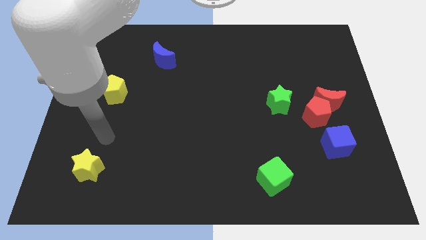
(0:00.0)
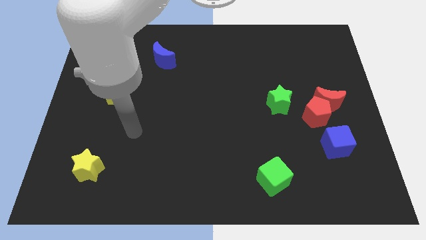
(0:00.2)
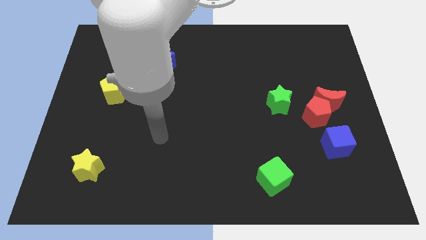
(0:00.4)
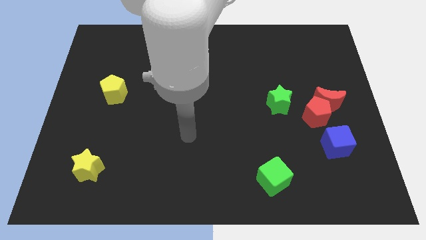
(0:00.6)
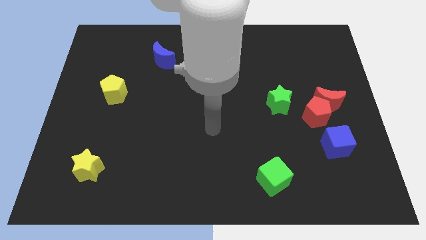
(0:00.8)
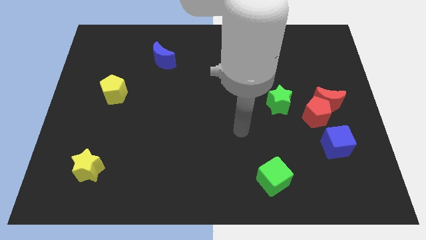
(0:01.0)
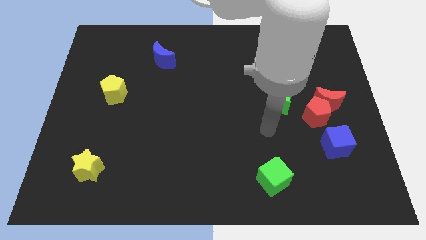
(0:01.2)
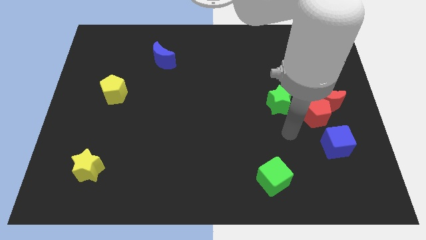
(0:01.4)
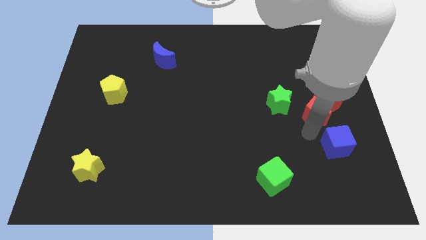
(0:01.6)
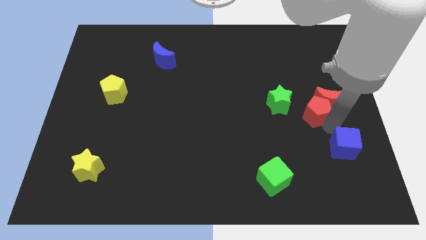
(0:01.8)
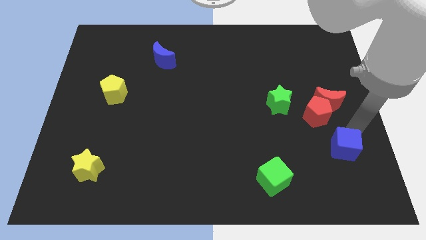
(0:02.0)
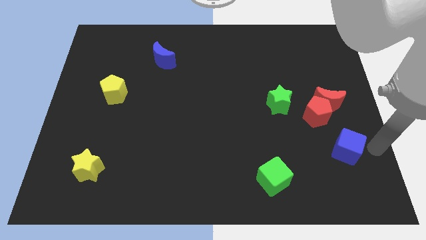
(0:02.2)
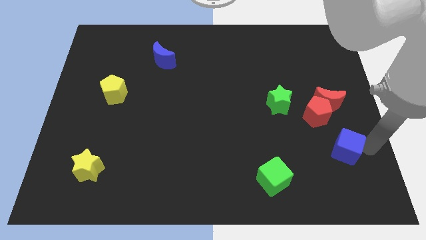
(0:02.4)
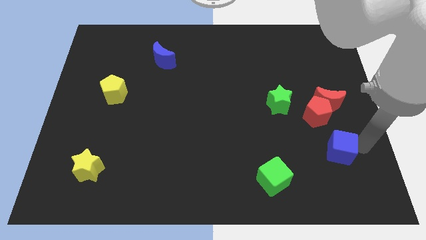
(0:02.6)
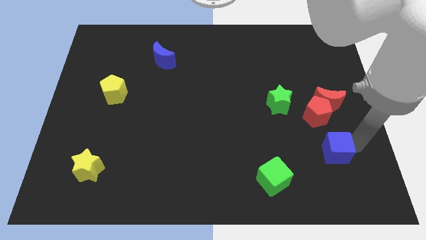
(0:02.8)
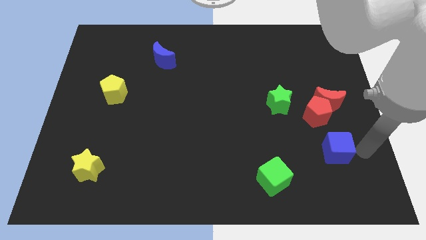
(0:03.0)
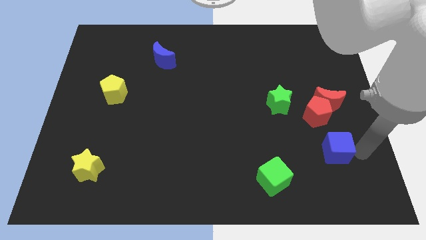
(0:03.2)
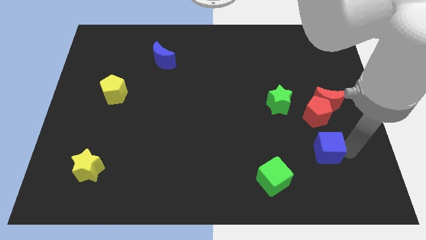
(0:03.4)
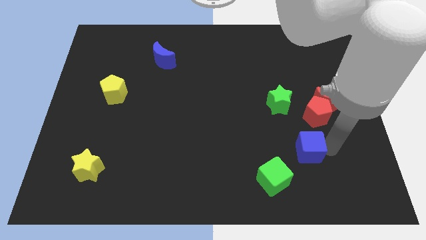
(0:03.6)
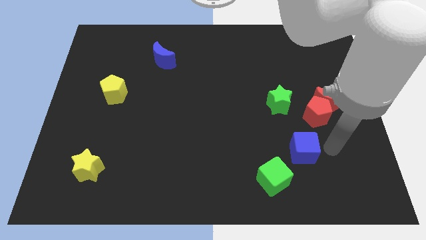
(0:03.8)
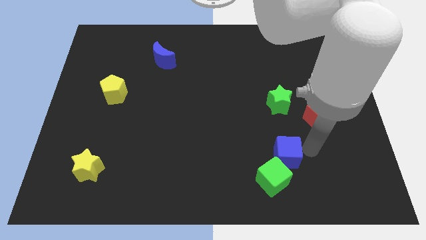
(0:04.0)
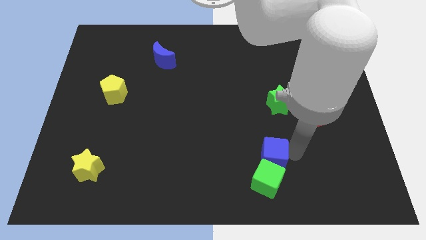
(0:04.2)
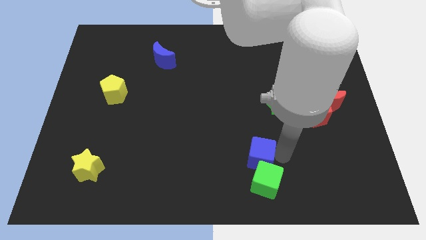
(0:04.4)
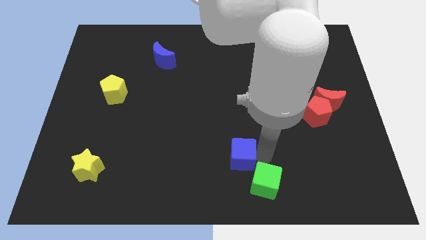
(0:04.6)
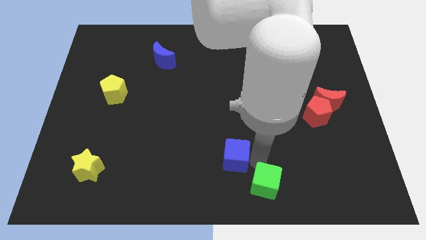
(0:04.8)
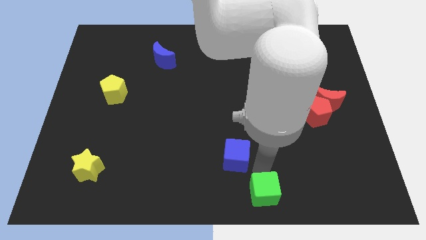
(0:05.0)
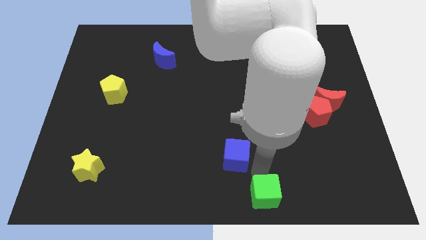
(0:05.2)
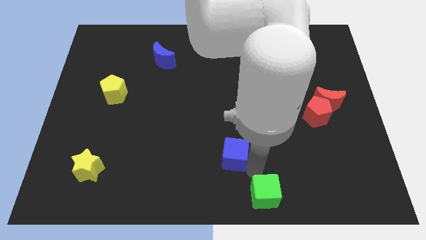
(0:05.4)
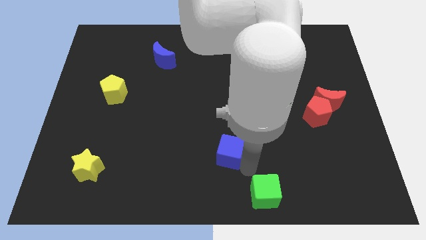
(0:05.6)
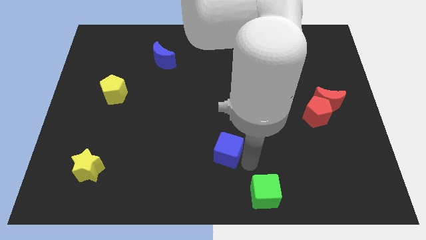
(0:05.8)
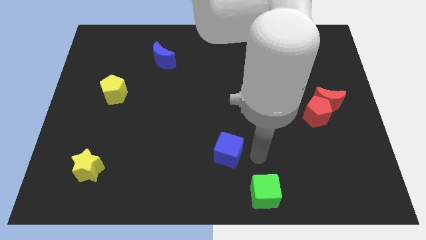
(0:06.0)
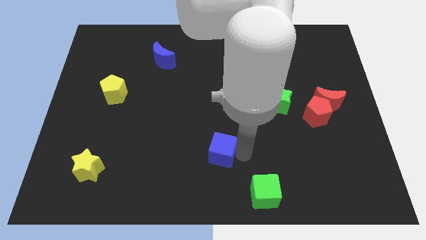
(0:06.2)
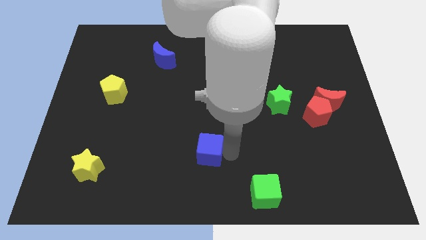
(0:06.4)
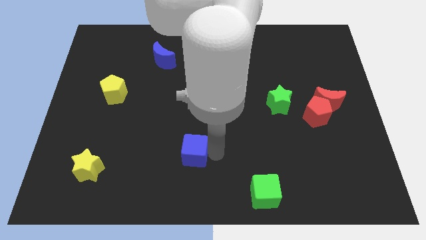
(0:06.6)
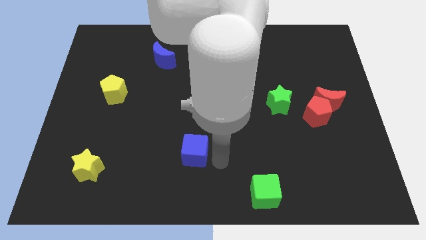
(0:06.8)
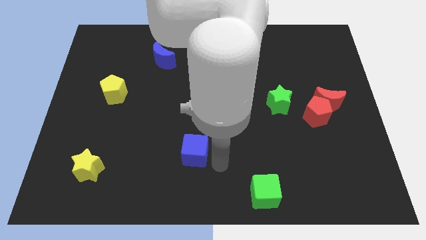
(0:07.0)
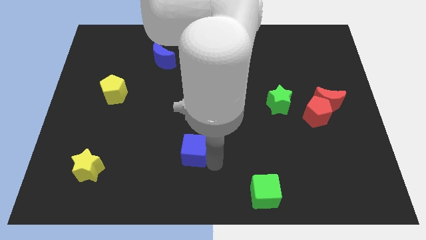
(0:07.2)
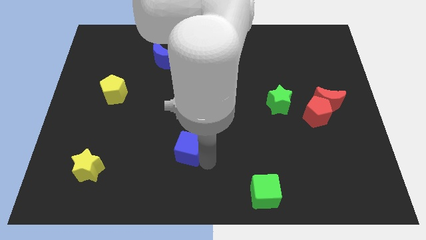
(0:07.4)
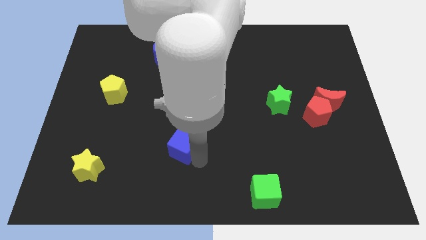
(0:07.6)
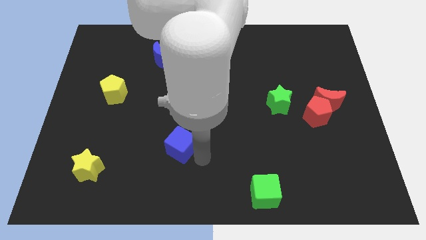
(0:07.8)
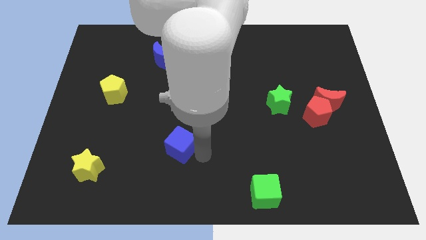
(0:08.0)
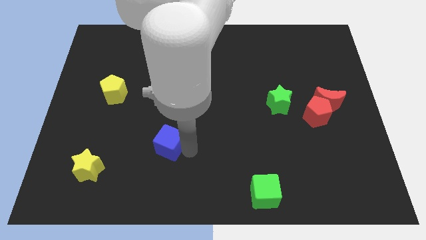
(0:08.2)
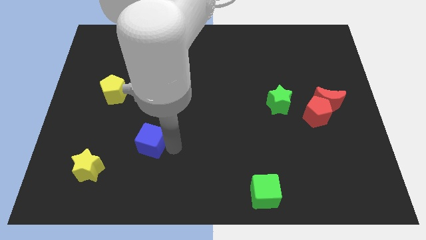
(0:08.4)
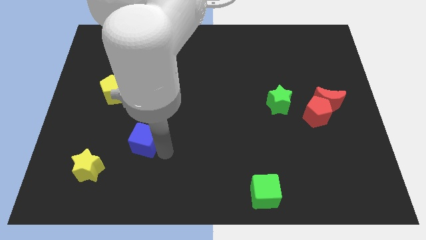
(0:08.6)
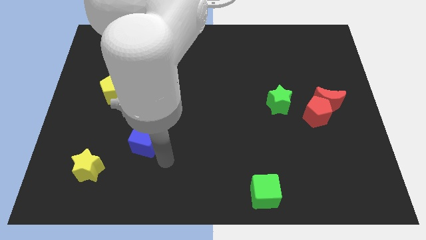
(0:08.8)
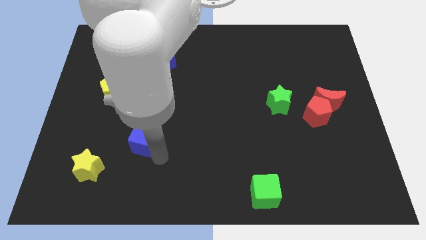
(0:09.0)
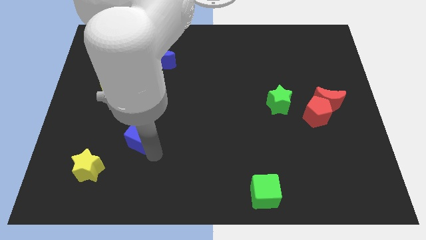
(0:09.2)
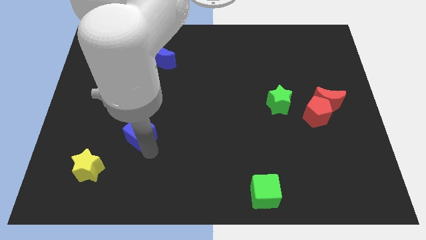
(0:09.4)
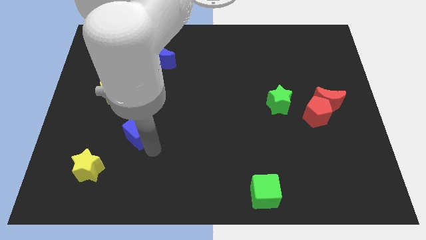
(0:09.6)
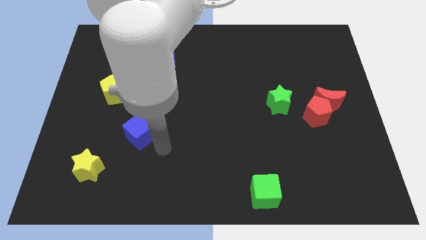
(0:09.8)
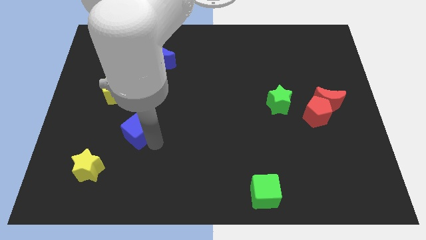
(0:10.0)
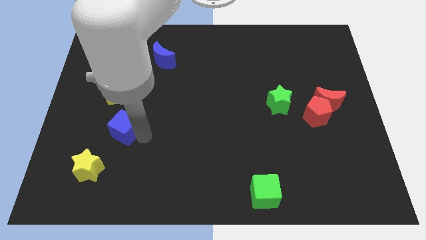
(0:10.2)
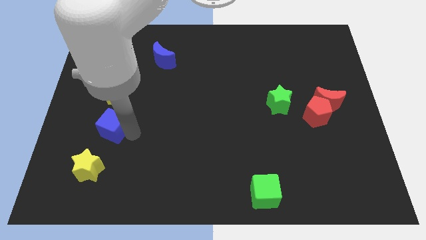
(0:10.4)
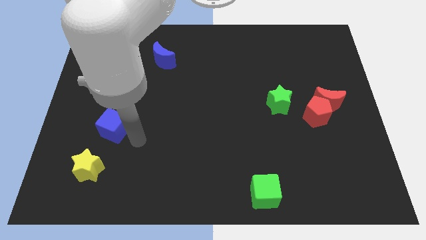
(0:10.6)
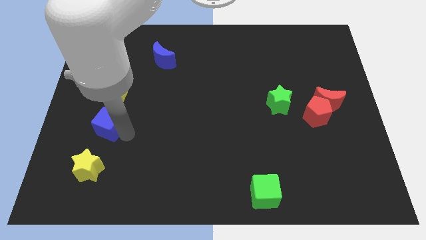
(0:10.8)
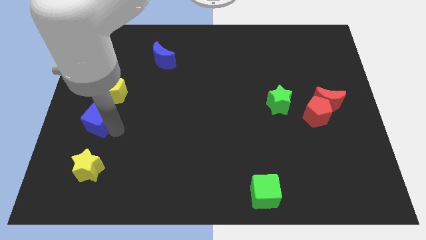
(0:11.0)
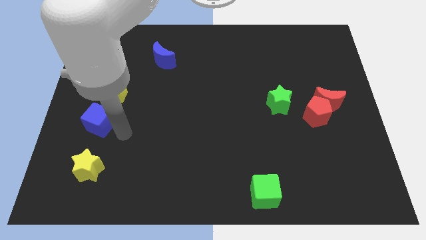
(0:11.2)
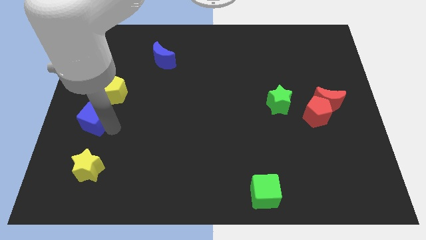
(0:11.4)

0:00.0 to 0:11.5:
move the blue cube to the left side of the board

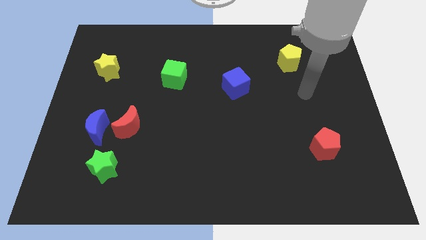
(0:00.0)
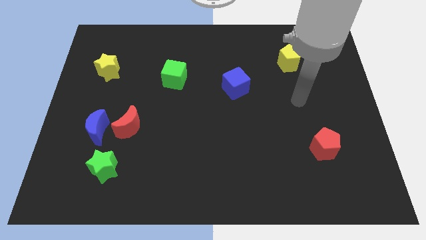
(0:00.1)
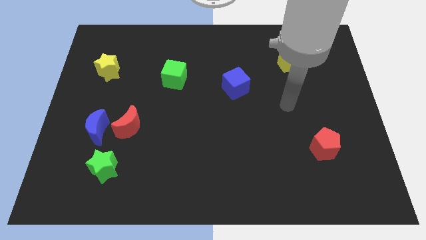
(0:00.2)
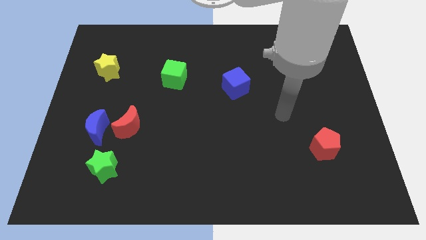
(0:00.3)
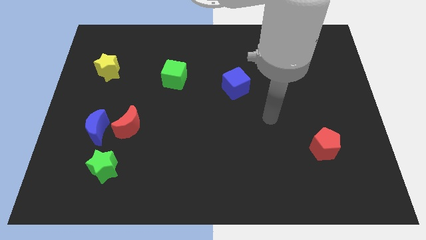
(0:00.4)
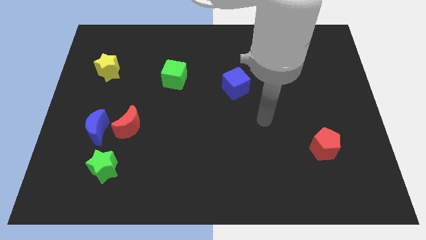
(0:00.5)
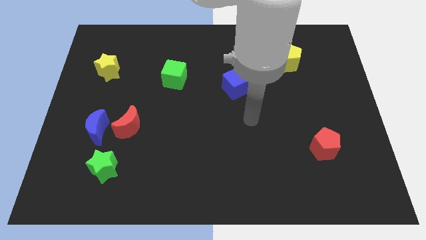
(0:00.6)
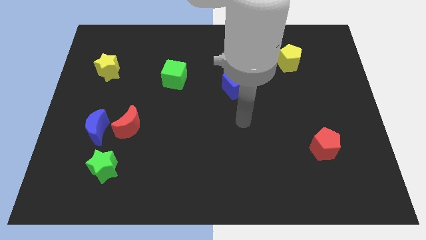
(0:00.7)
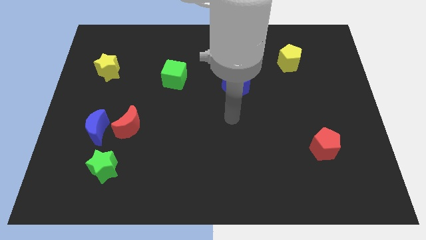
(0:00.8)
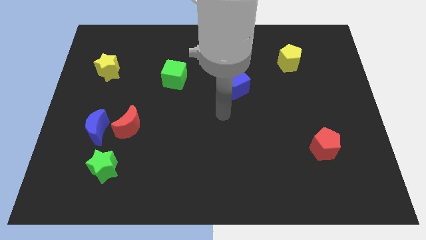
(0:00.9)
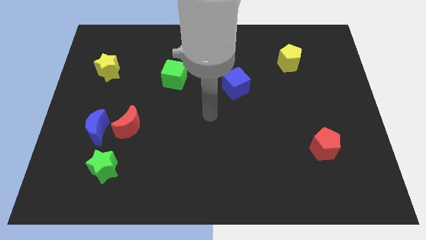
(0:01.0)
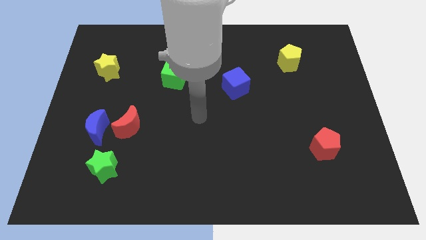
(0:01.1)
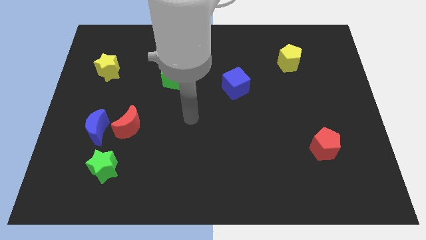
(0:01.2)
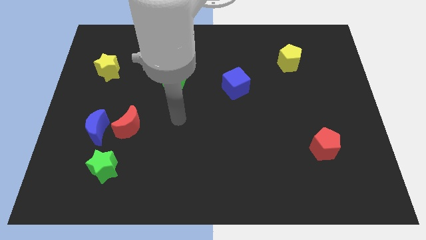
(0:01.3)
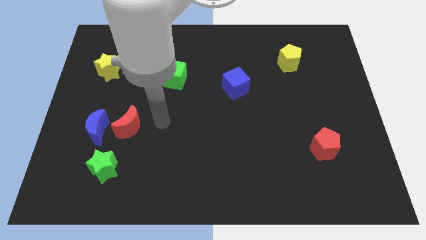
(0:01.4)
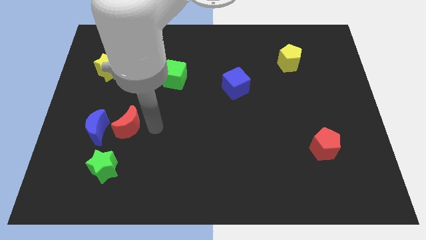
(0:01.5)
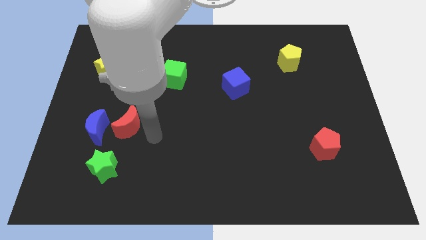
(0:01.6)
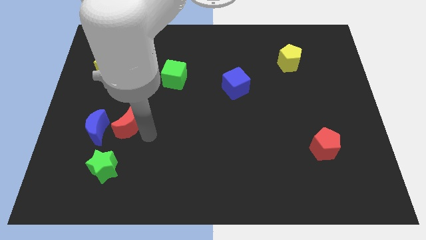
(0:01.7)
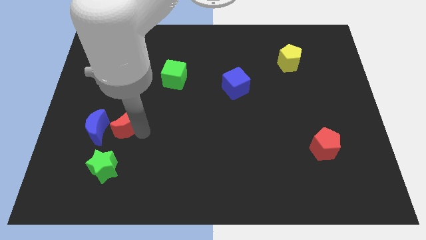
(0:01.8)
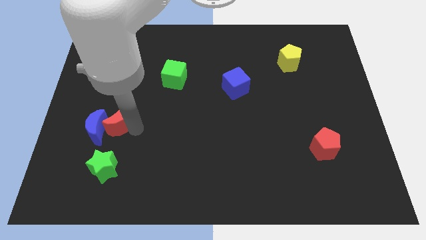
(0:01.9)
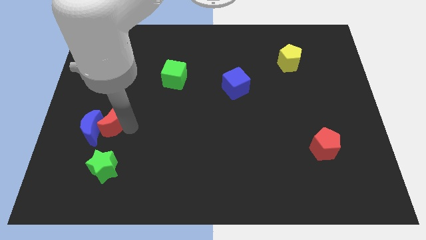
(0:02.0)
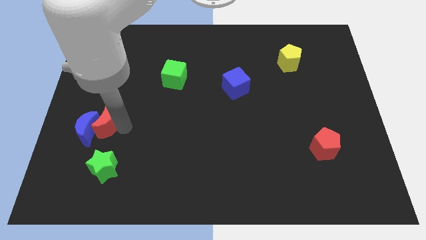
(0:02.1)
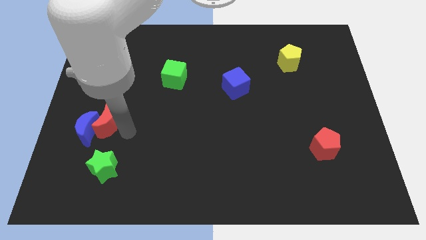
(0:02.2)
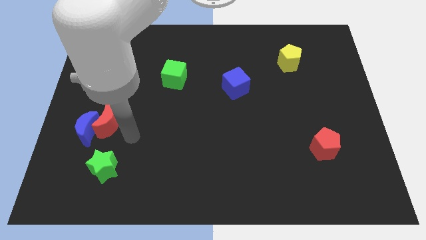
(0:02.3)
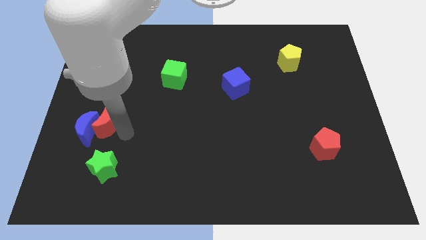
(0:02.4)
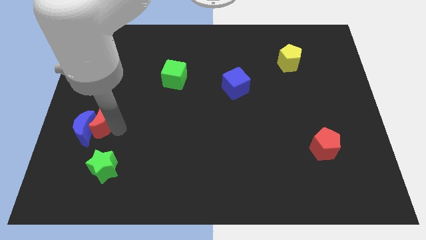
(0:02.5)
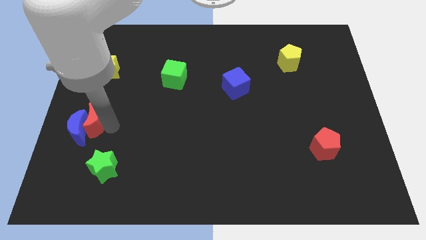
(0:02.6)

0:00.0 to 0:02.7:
slide the red moon to the left side of the board
